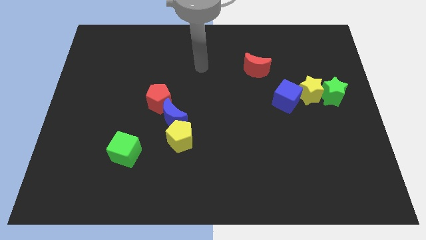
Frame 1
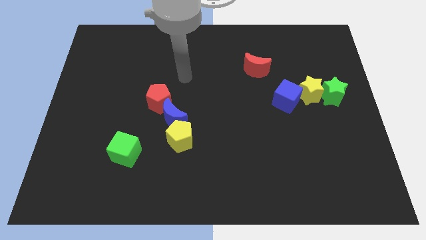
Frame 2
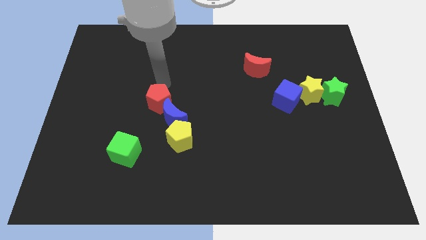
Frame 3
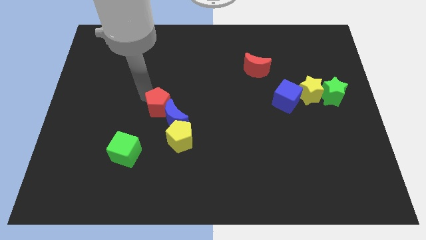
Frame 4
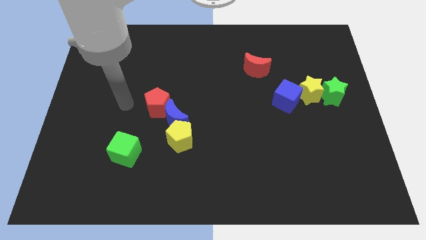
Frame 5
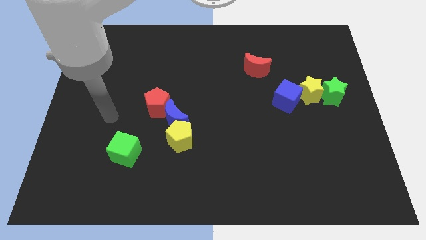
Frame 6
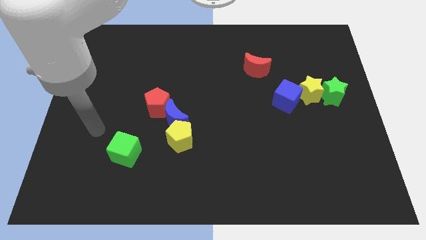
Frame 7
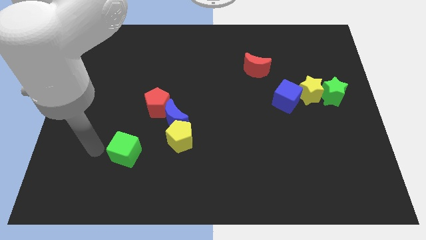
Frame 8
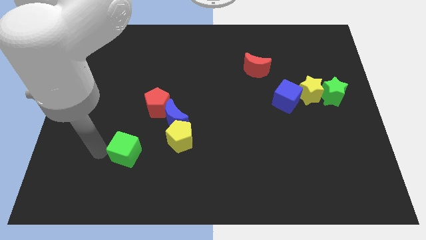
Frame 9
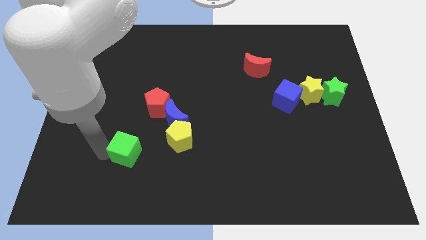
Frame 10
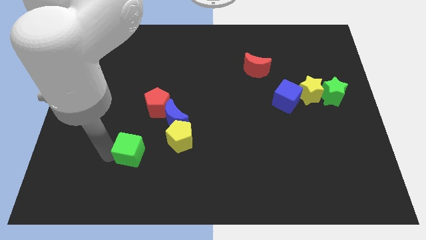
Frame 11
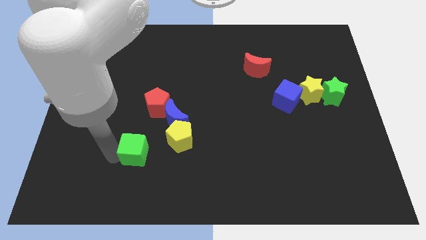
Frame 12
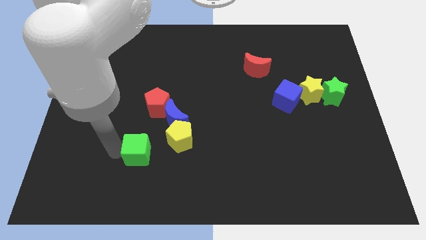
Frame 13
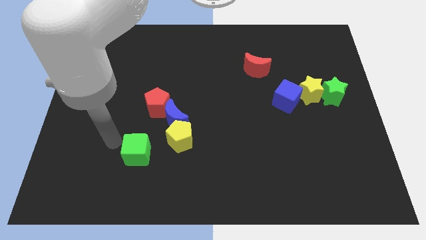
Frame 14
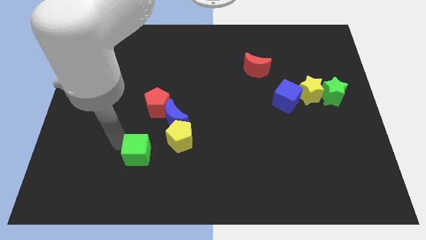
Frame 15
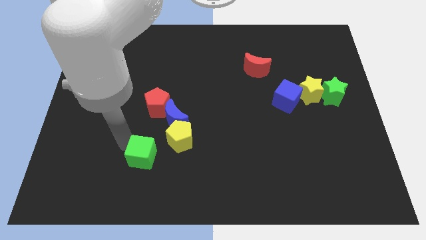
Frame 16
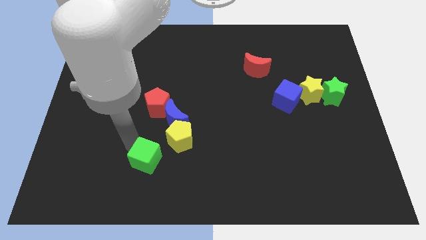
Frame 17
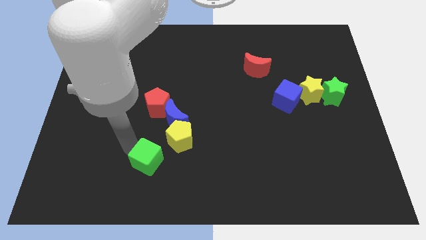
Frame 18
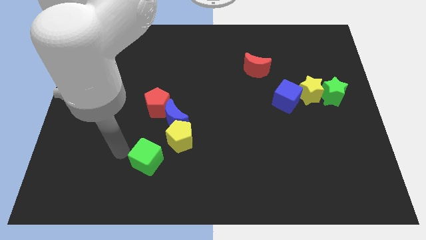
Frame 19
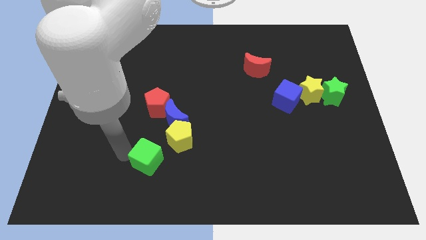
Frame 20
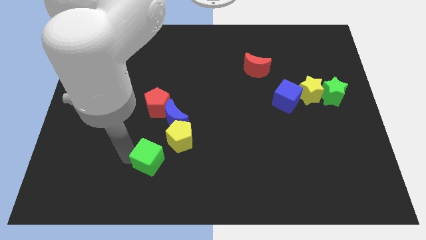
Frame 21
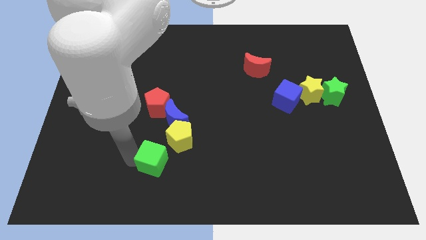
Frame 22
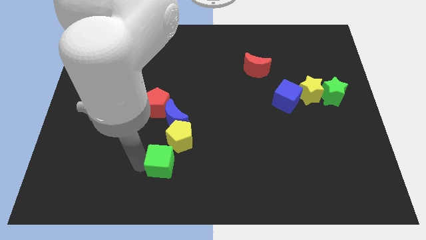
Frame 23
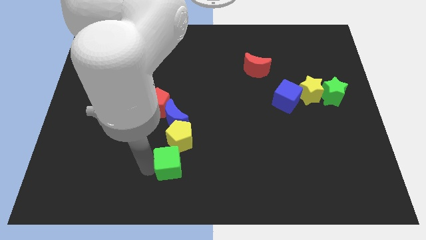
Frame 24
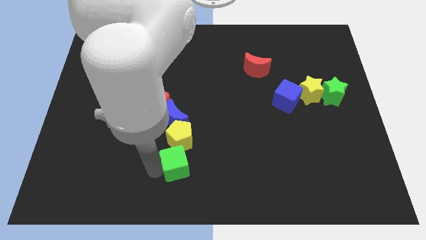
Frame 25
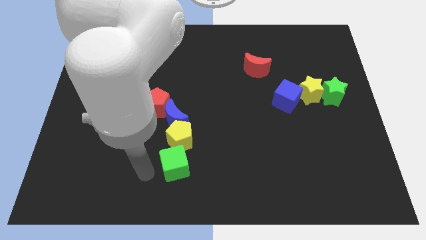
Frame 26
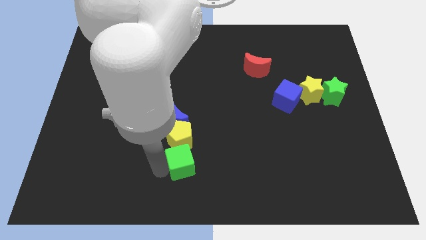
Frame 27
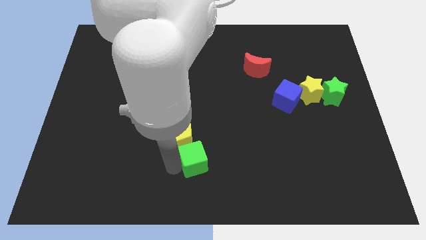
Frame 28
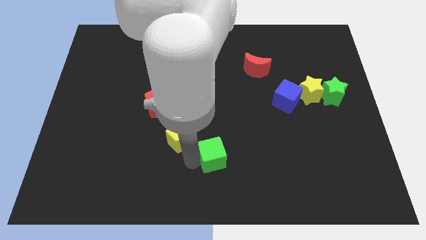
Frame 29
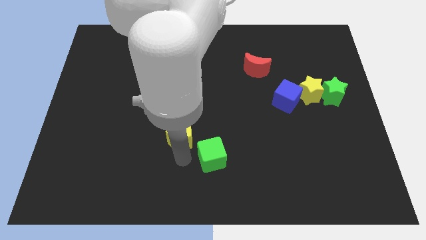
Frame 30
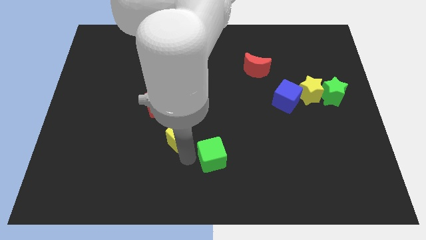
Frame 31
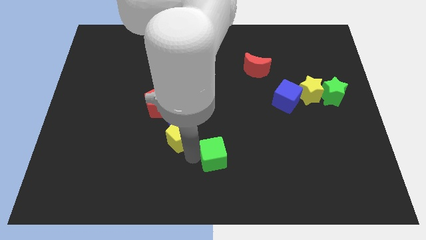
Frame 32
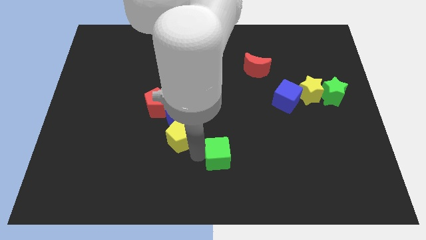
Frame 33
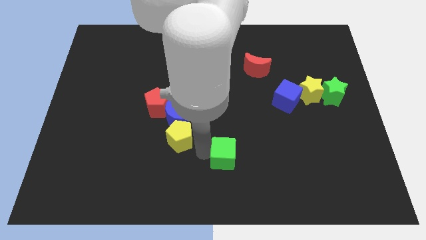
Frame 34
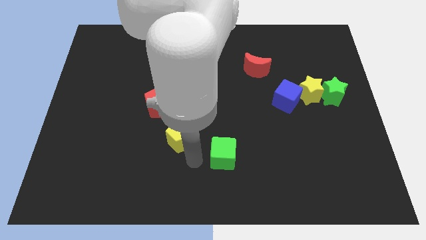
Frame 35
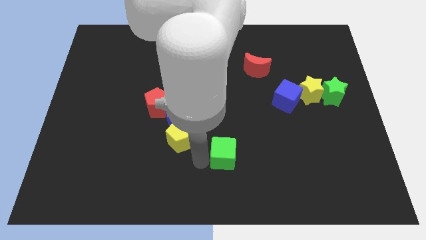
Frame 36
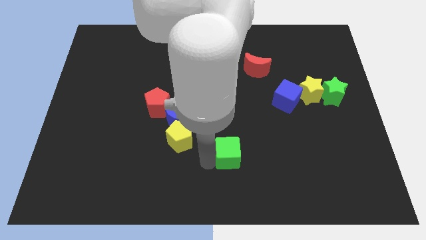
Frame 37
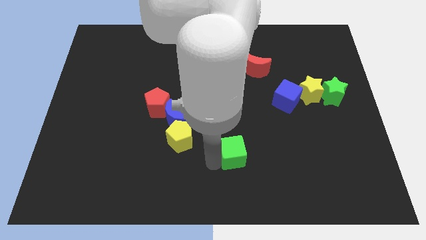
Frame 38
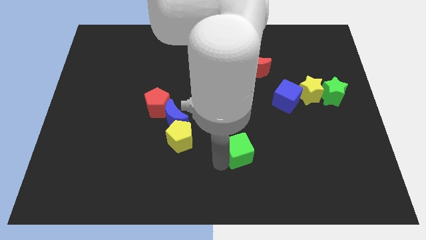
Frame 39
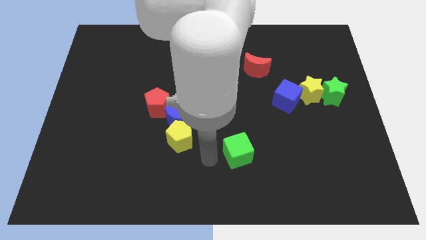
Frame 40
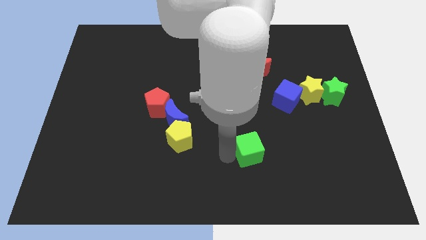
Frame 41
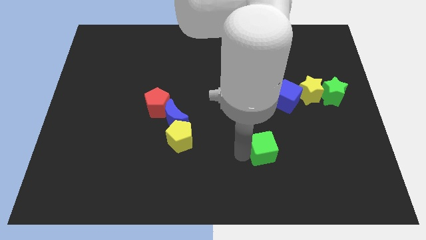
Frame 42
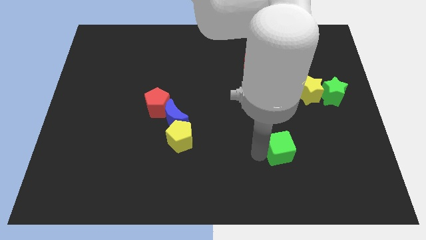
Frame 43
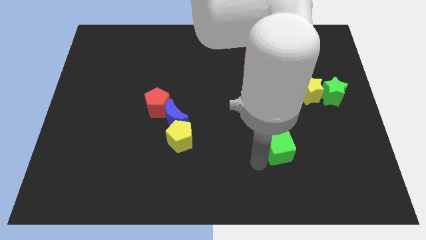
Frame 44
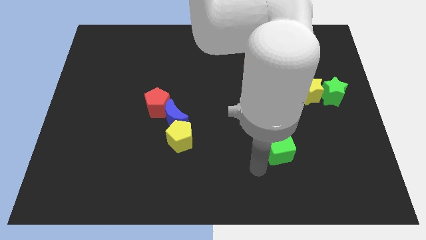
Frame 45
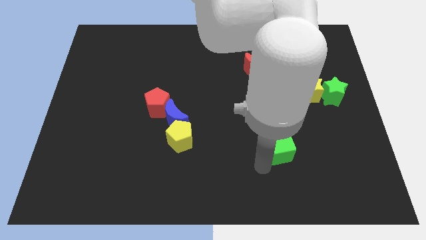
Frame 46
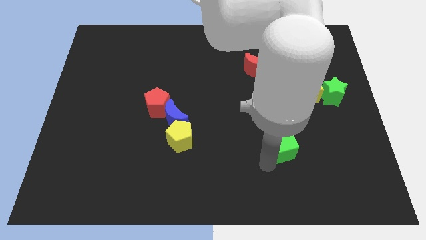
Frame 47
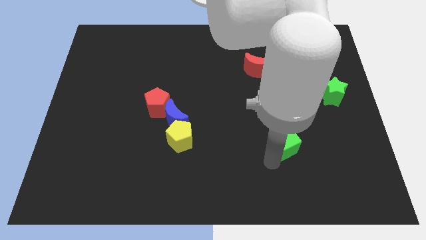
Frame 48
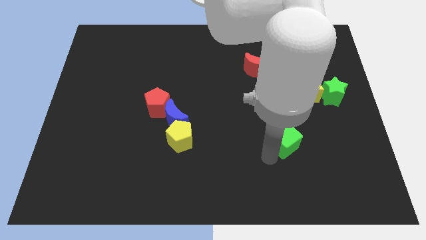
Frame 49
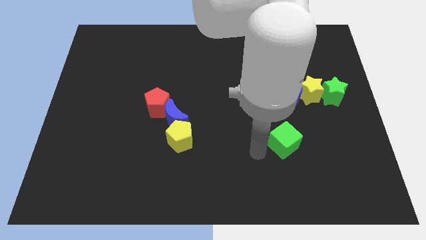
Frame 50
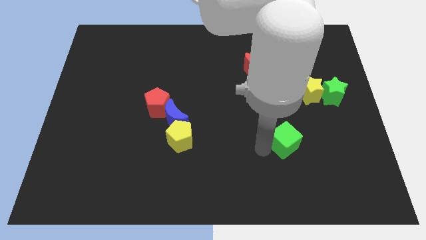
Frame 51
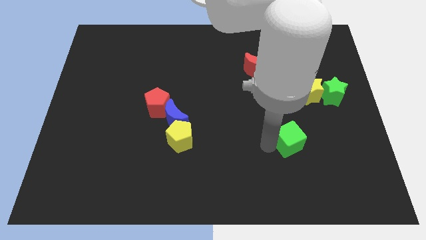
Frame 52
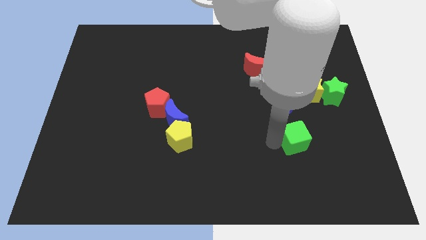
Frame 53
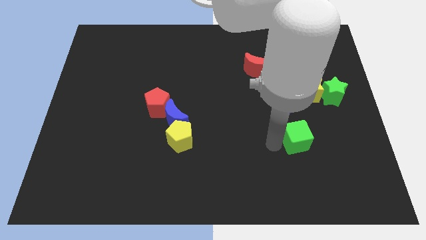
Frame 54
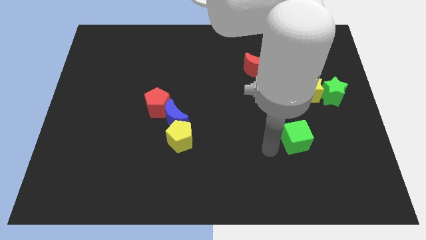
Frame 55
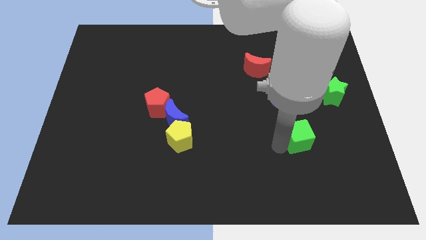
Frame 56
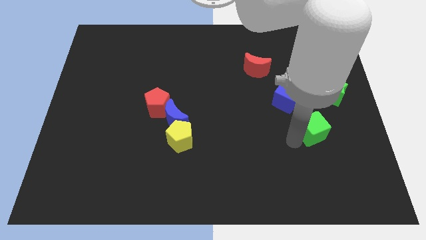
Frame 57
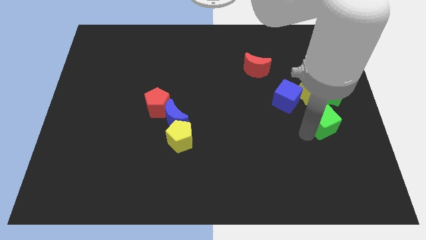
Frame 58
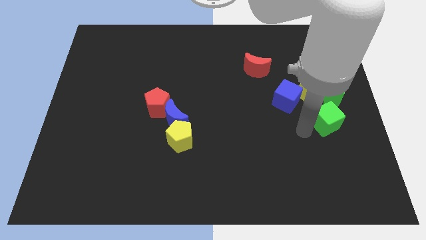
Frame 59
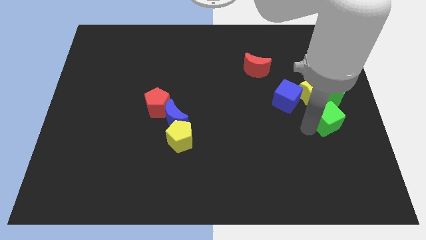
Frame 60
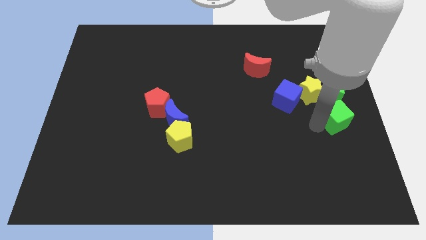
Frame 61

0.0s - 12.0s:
move the green cube to the right side
